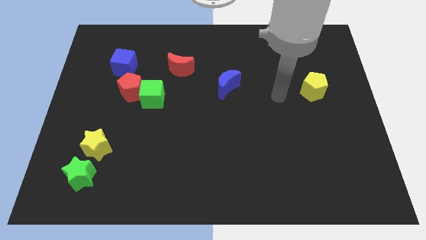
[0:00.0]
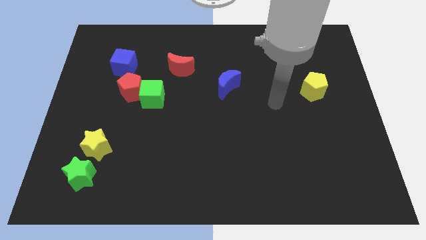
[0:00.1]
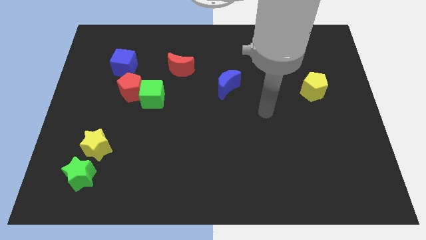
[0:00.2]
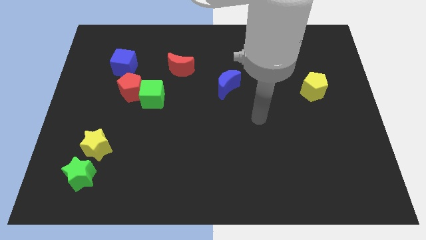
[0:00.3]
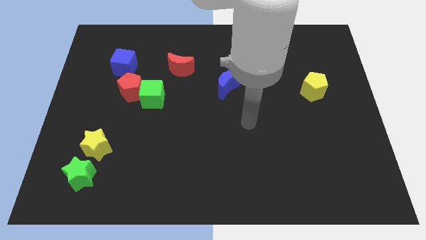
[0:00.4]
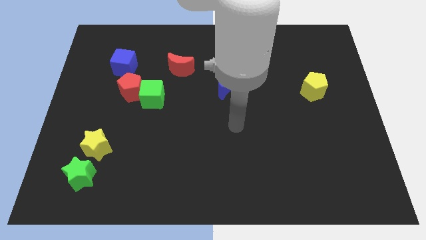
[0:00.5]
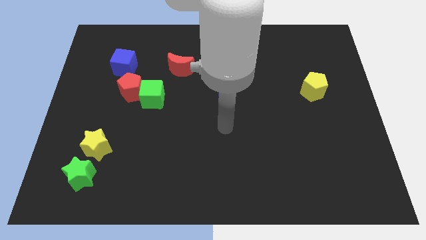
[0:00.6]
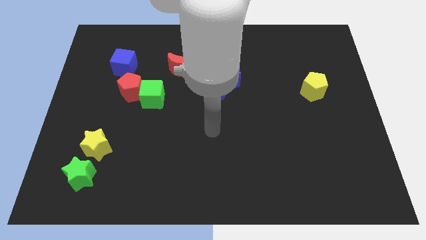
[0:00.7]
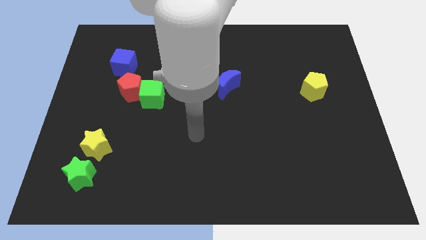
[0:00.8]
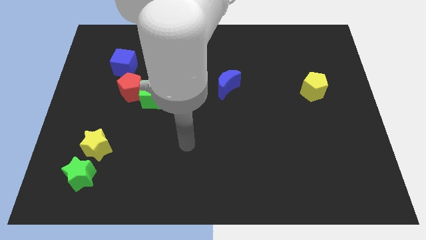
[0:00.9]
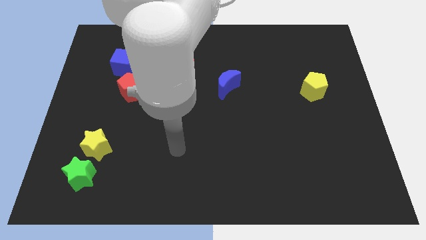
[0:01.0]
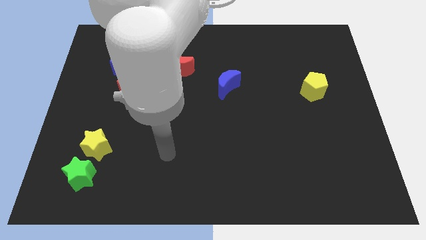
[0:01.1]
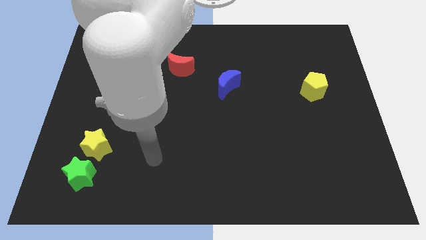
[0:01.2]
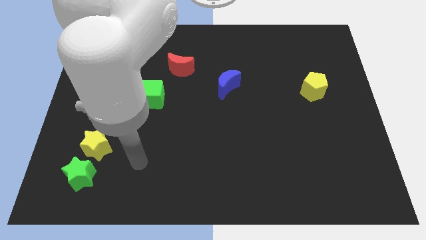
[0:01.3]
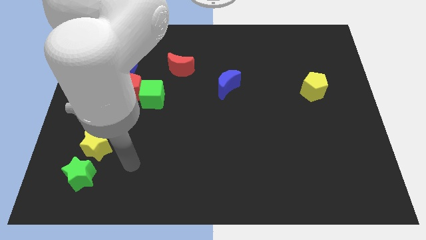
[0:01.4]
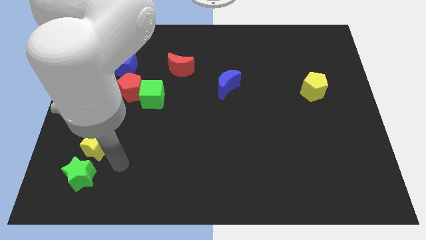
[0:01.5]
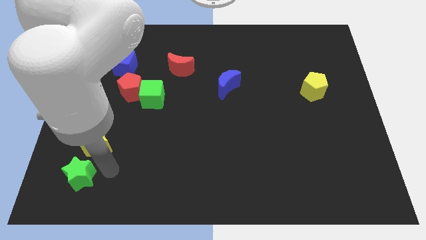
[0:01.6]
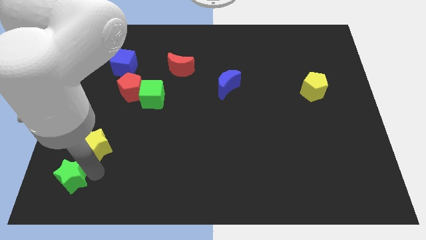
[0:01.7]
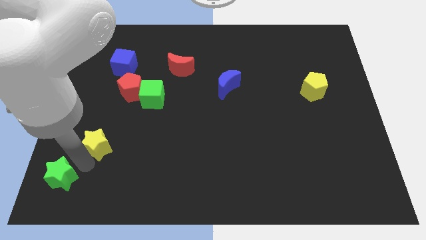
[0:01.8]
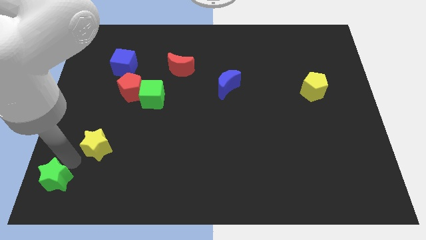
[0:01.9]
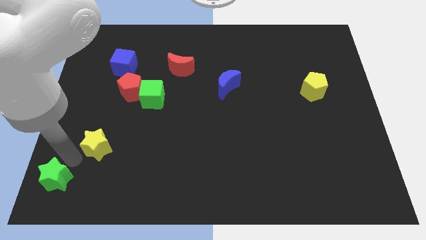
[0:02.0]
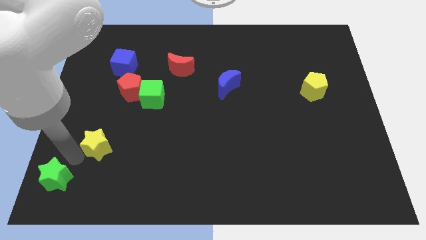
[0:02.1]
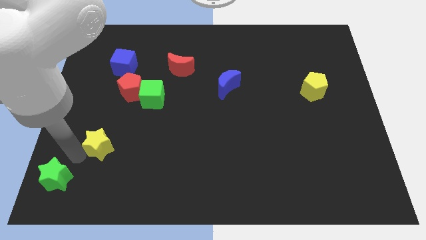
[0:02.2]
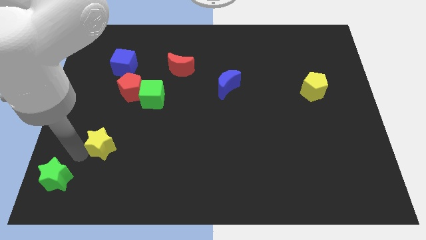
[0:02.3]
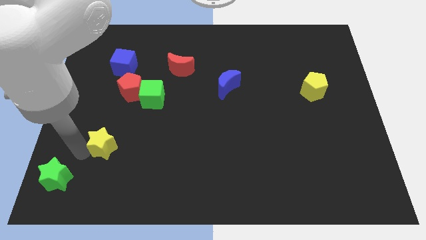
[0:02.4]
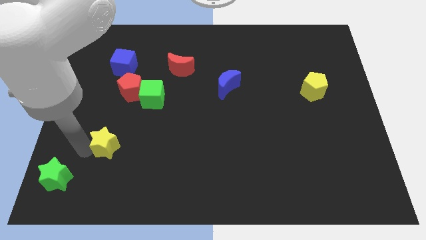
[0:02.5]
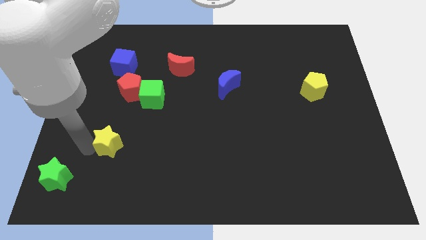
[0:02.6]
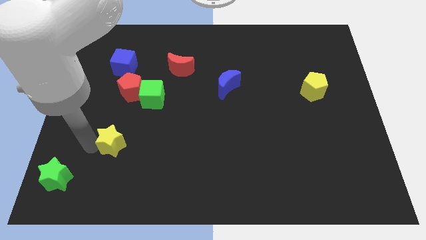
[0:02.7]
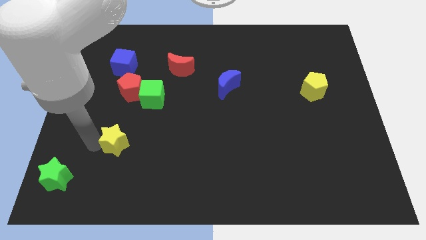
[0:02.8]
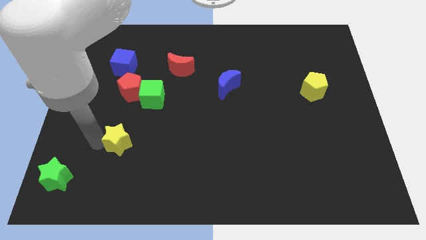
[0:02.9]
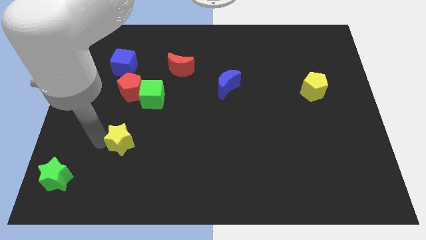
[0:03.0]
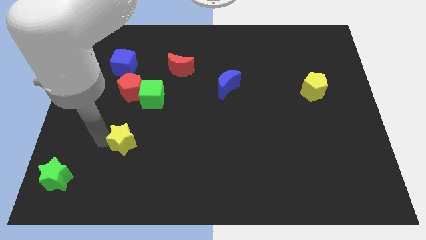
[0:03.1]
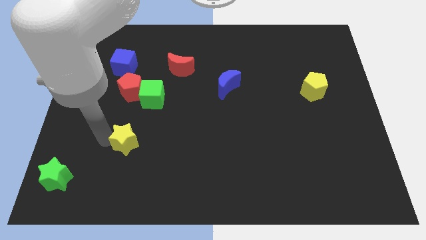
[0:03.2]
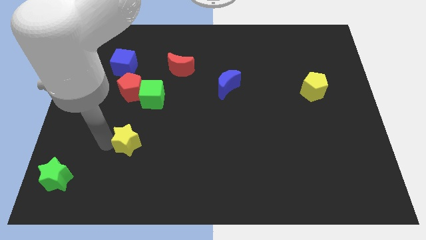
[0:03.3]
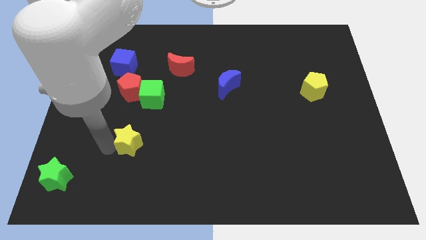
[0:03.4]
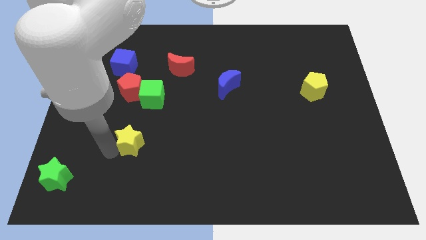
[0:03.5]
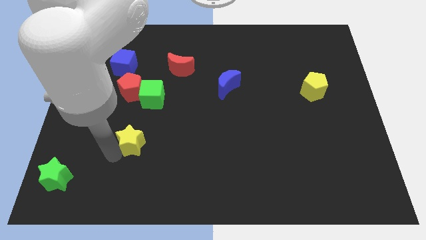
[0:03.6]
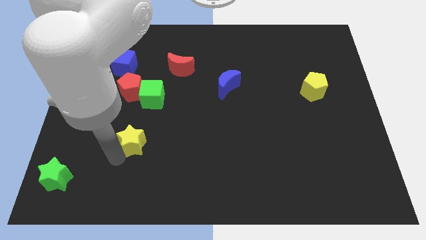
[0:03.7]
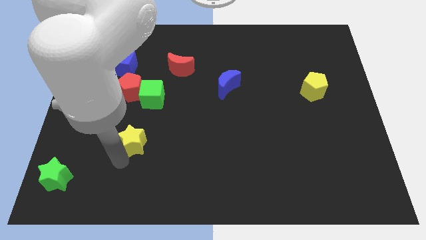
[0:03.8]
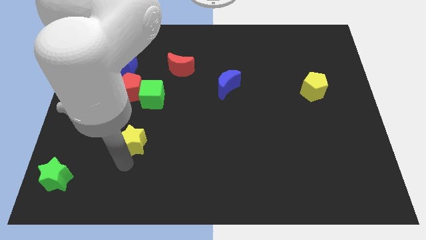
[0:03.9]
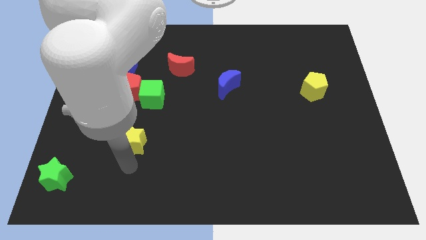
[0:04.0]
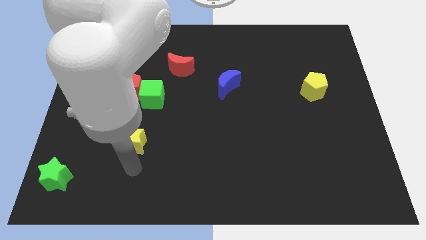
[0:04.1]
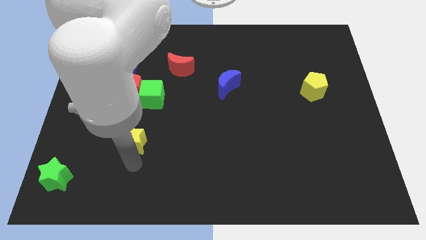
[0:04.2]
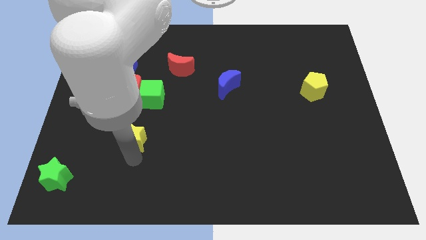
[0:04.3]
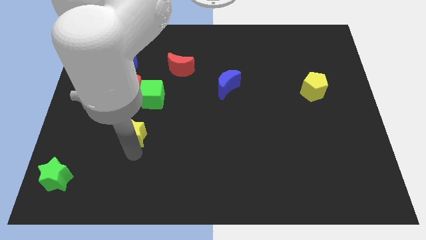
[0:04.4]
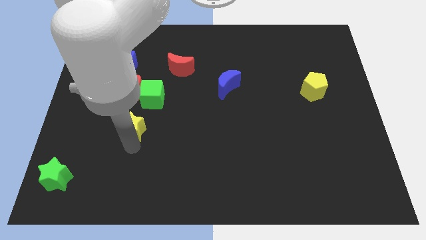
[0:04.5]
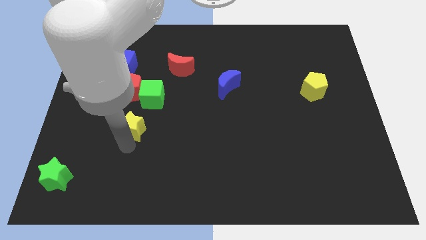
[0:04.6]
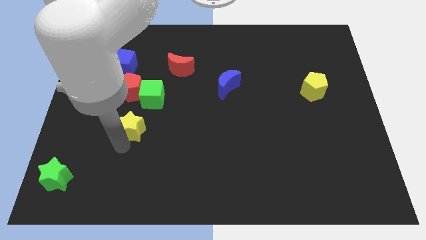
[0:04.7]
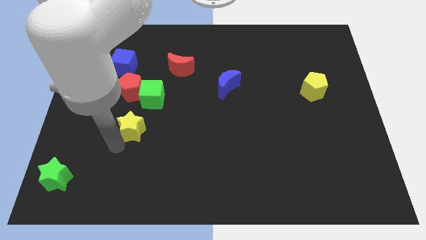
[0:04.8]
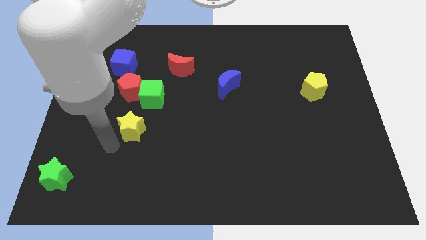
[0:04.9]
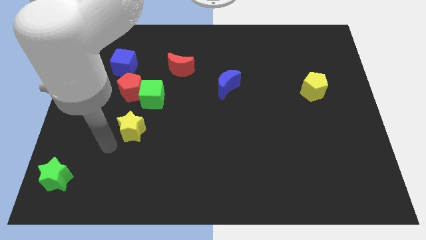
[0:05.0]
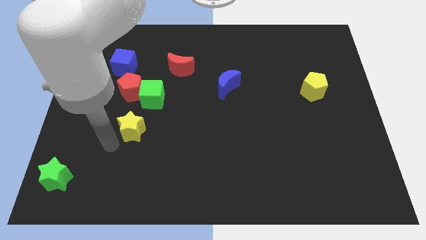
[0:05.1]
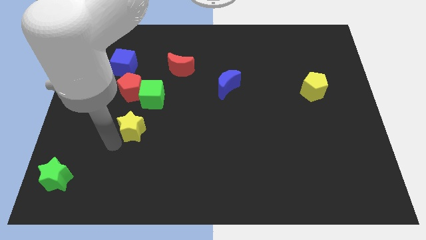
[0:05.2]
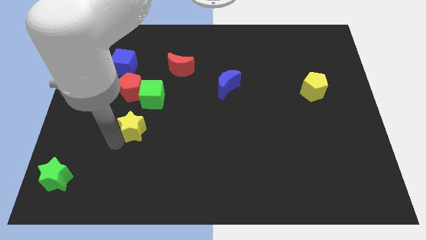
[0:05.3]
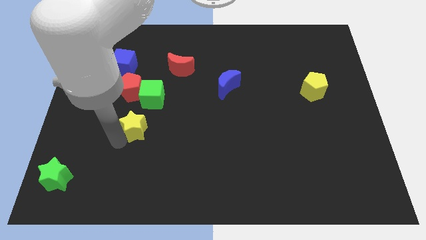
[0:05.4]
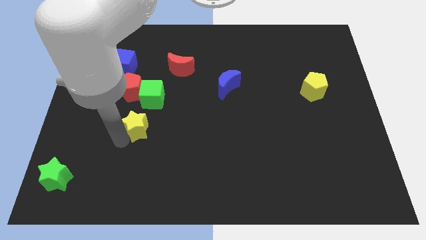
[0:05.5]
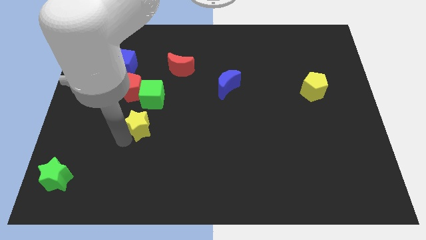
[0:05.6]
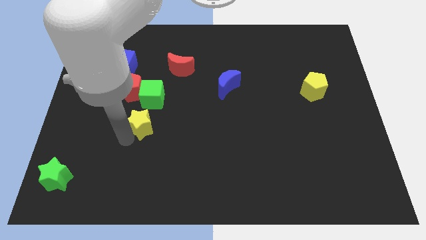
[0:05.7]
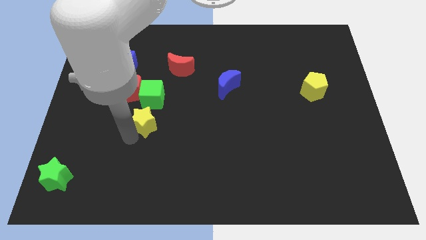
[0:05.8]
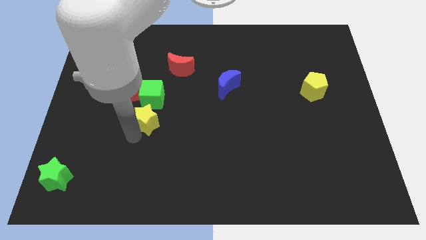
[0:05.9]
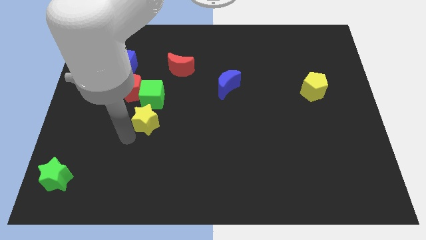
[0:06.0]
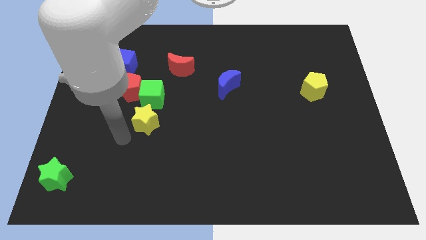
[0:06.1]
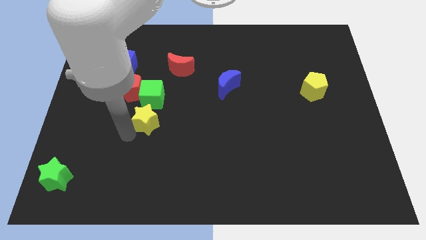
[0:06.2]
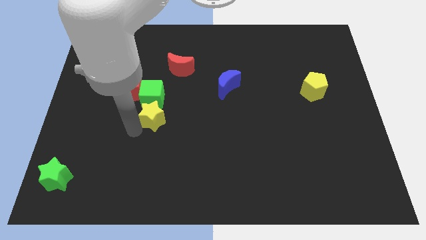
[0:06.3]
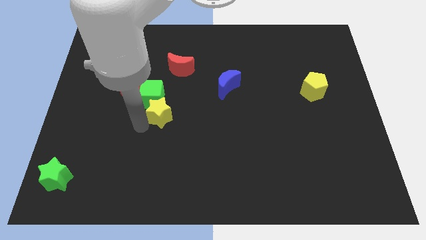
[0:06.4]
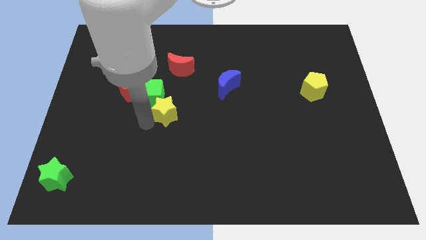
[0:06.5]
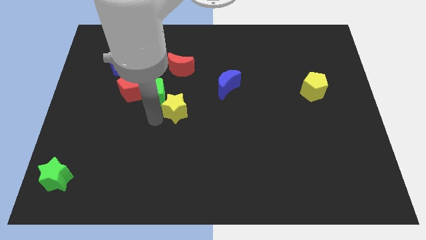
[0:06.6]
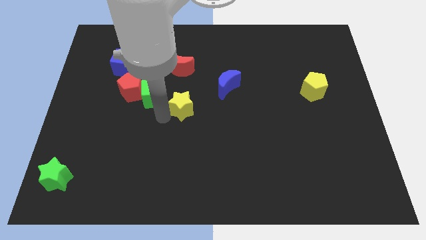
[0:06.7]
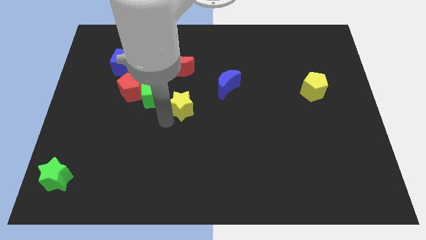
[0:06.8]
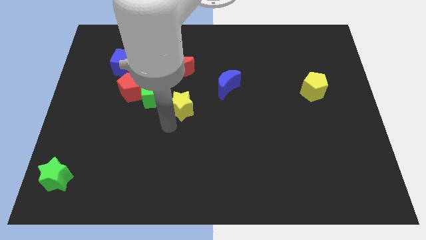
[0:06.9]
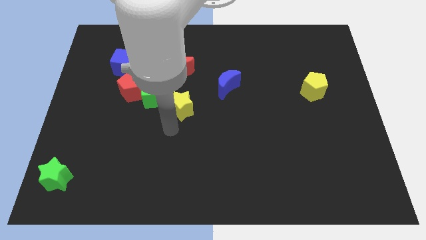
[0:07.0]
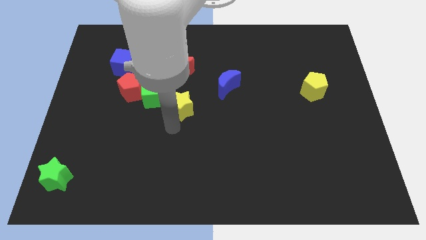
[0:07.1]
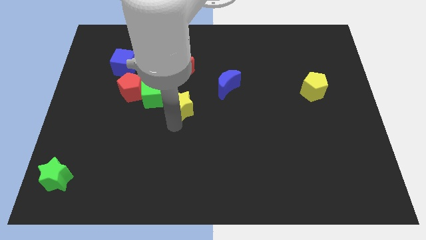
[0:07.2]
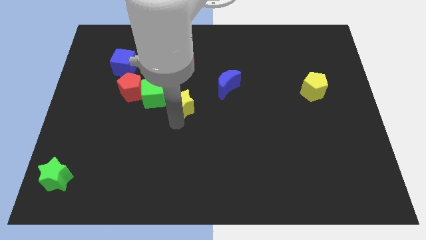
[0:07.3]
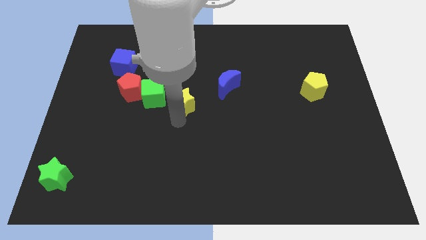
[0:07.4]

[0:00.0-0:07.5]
move the yellow star up and to the right

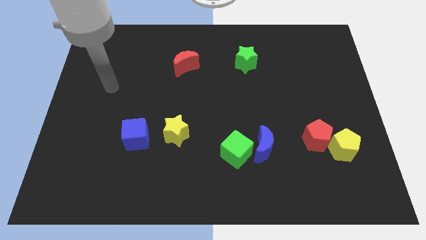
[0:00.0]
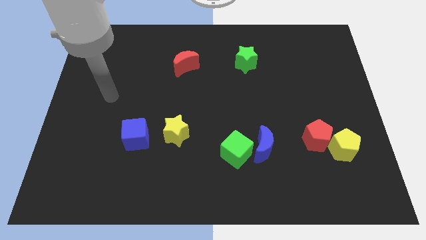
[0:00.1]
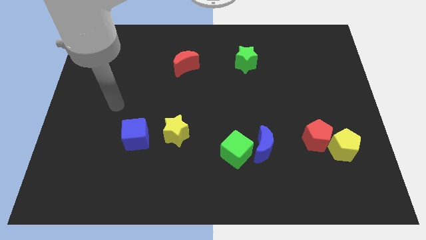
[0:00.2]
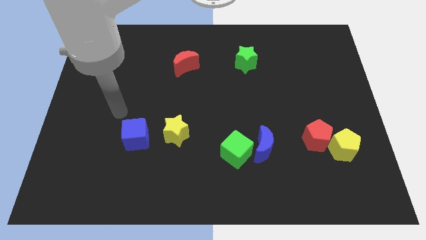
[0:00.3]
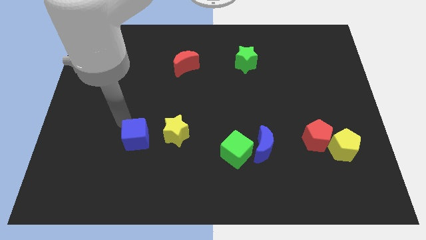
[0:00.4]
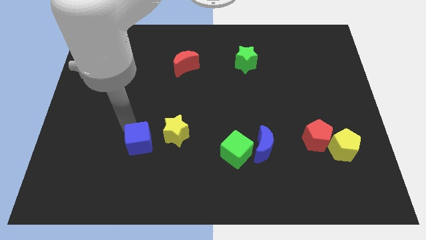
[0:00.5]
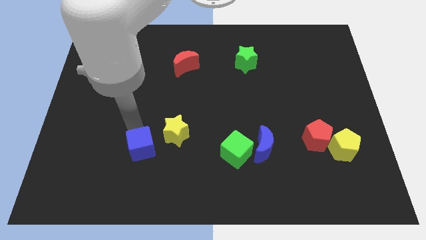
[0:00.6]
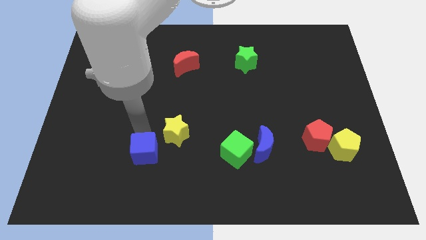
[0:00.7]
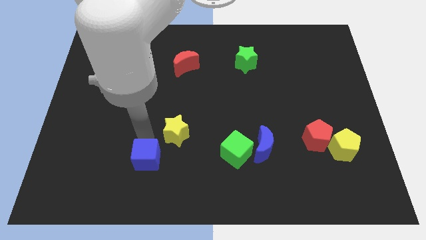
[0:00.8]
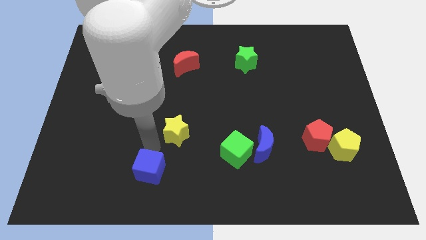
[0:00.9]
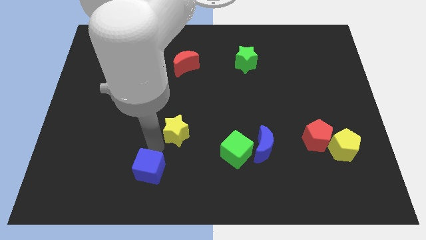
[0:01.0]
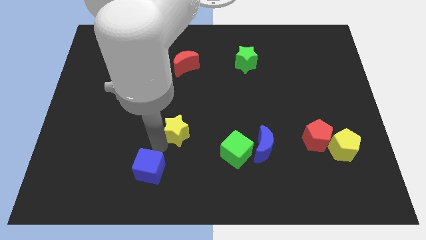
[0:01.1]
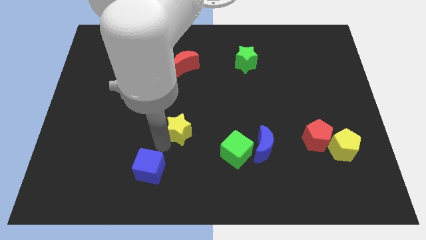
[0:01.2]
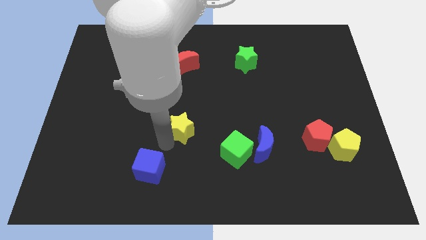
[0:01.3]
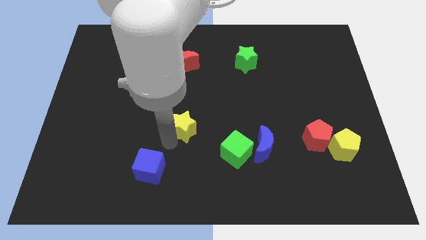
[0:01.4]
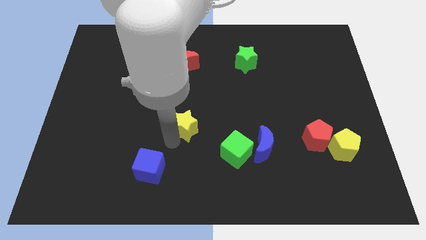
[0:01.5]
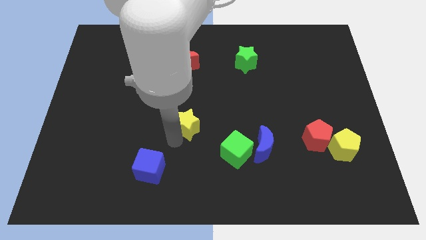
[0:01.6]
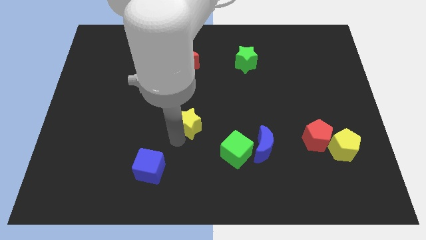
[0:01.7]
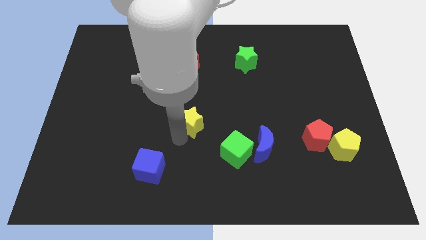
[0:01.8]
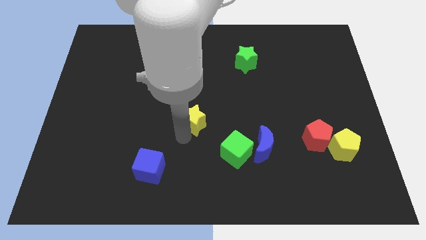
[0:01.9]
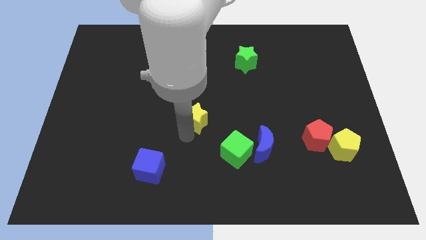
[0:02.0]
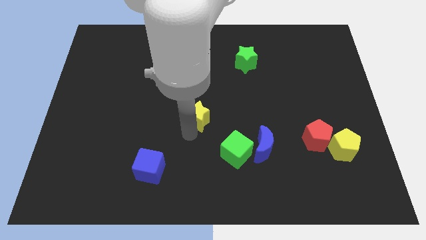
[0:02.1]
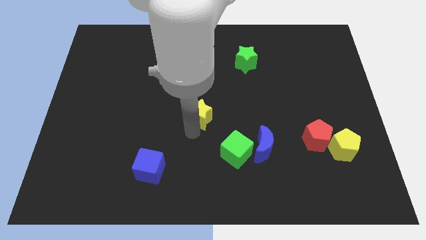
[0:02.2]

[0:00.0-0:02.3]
slide the yellow star upwards and then to the right slightly
